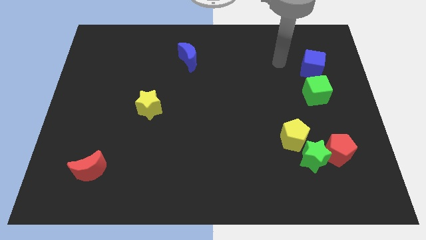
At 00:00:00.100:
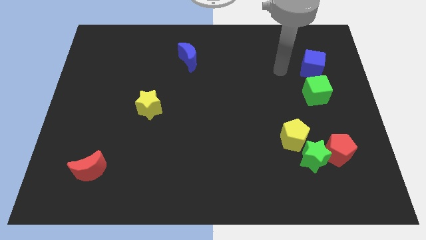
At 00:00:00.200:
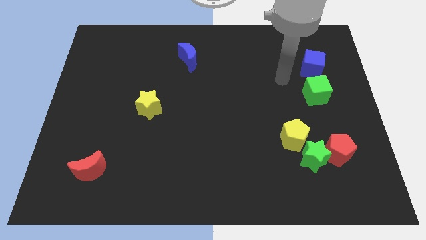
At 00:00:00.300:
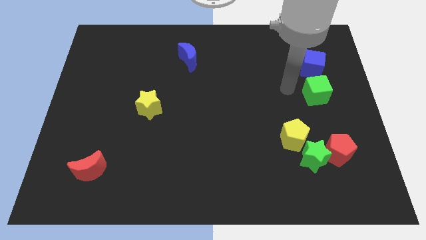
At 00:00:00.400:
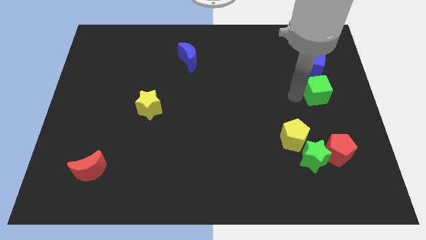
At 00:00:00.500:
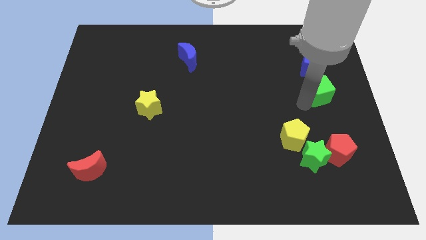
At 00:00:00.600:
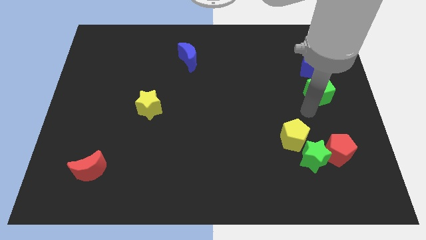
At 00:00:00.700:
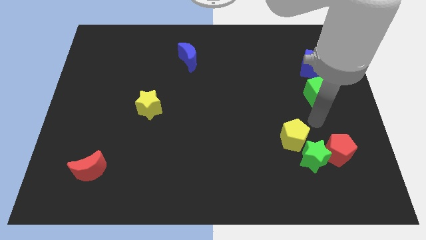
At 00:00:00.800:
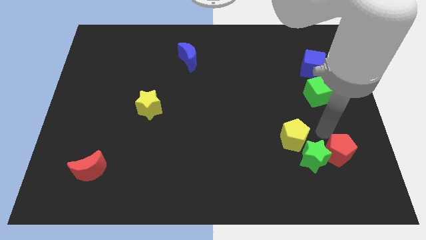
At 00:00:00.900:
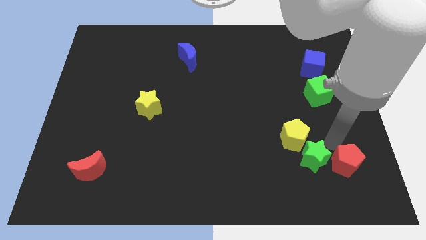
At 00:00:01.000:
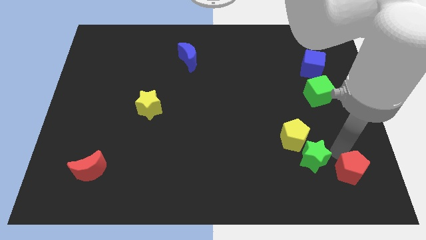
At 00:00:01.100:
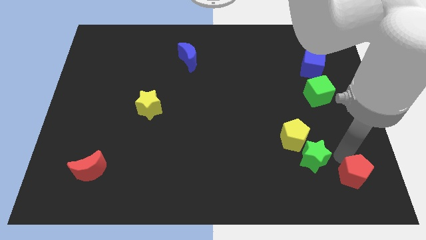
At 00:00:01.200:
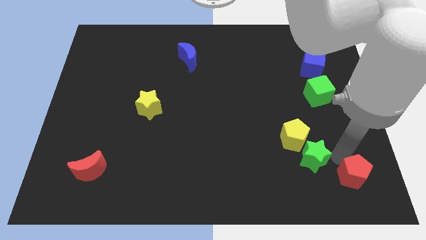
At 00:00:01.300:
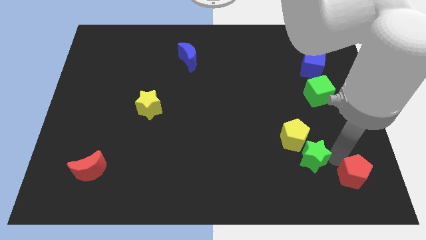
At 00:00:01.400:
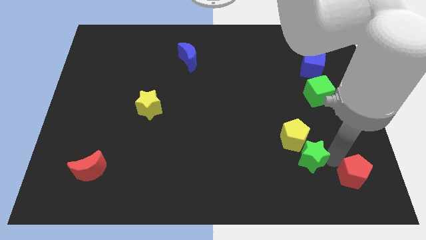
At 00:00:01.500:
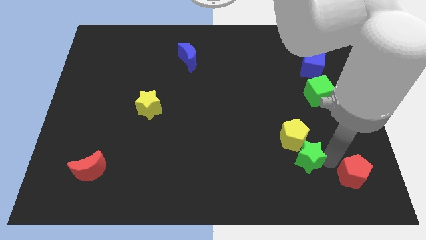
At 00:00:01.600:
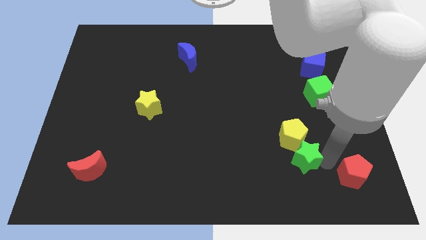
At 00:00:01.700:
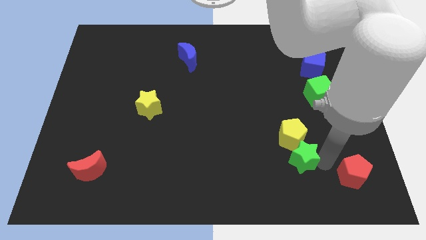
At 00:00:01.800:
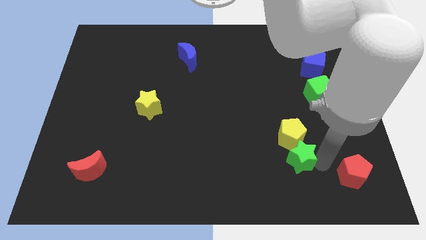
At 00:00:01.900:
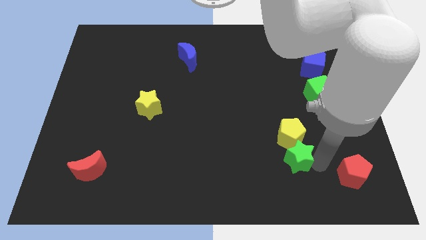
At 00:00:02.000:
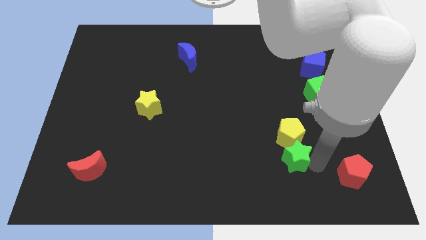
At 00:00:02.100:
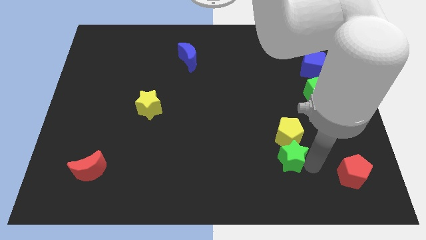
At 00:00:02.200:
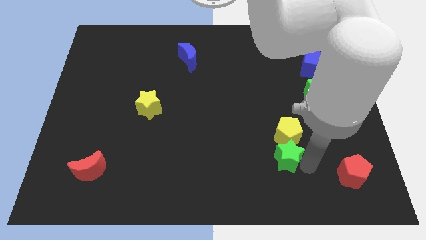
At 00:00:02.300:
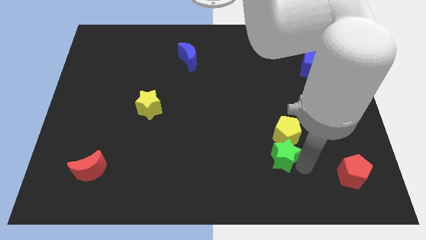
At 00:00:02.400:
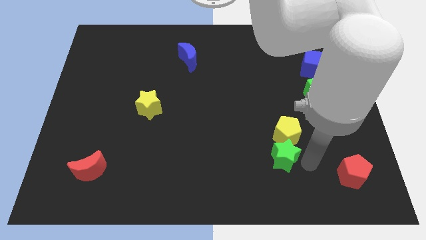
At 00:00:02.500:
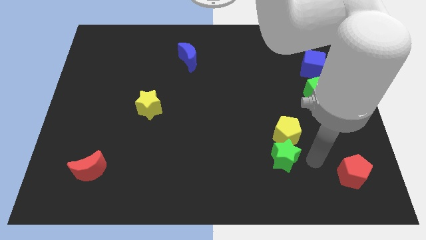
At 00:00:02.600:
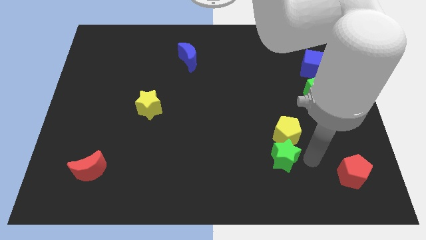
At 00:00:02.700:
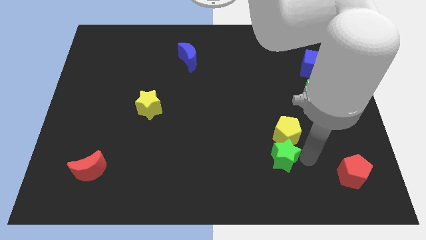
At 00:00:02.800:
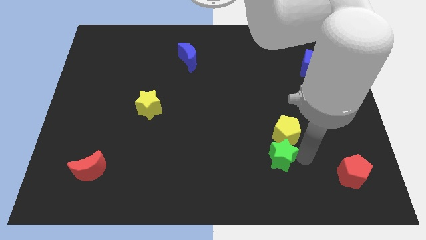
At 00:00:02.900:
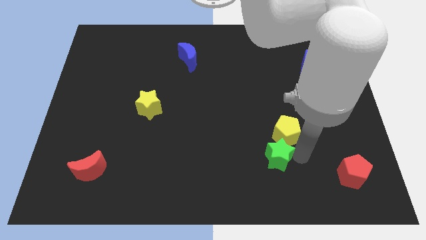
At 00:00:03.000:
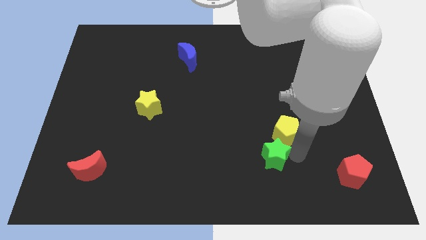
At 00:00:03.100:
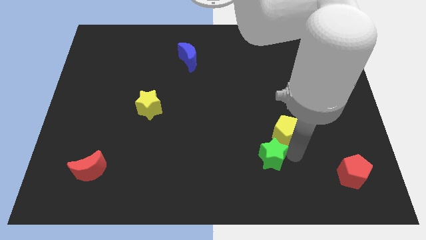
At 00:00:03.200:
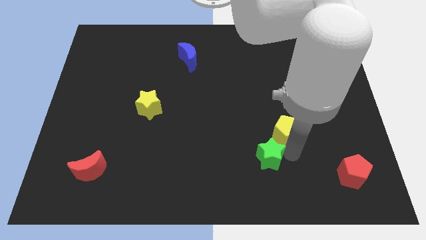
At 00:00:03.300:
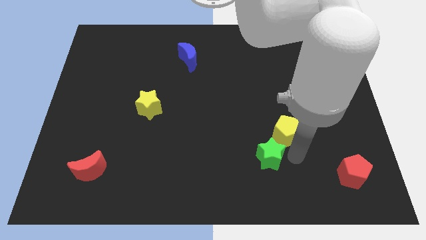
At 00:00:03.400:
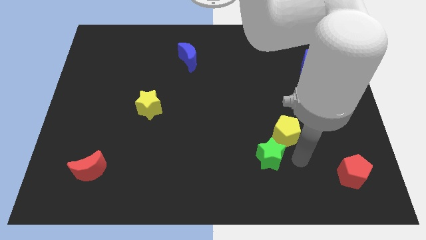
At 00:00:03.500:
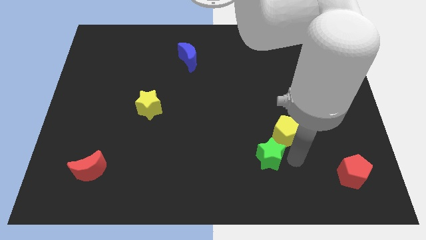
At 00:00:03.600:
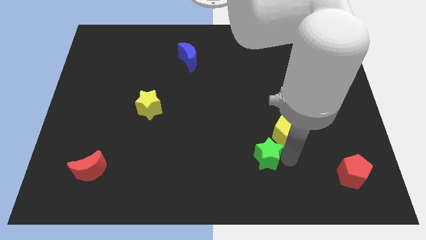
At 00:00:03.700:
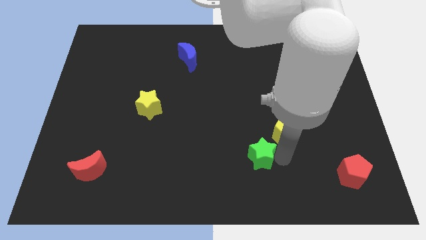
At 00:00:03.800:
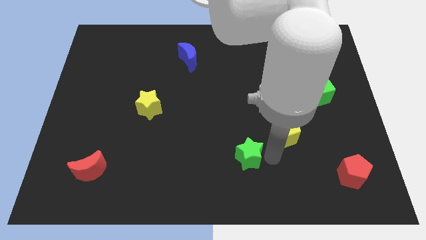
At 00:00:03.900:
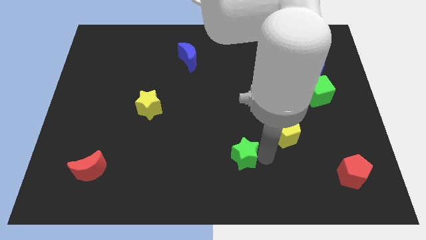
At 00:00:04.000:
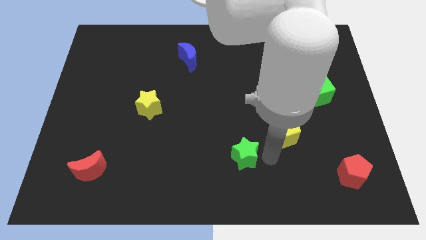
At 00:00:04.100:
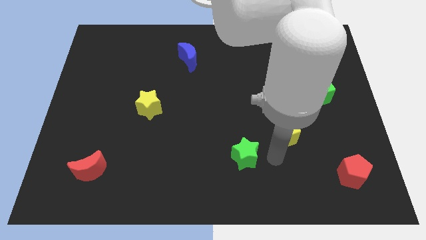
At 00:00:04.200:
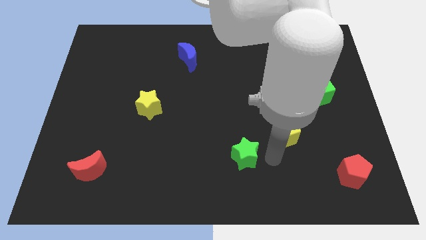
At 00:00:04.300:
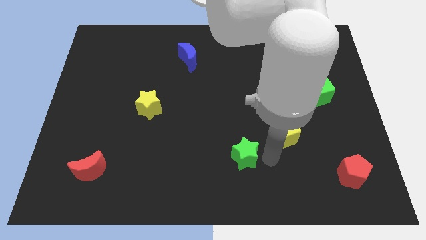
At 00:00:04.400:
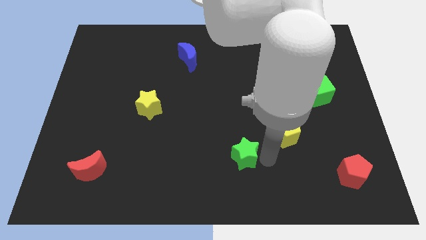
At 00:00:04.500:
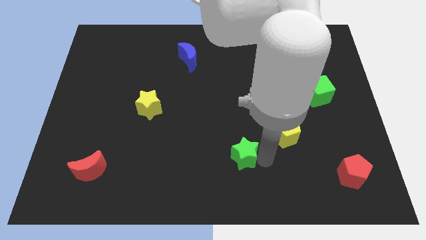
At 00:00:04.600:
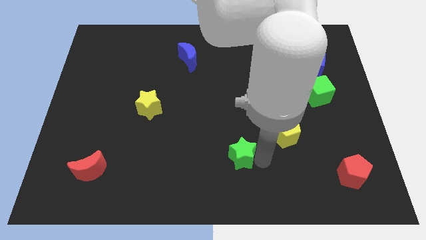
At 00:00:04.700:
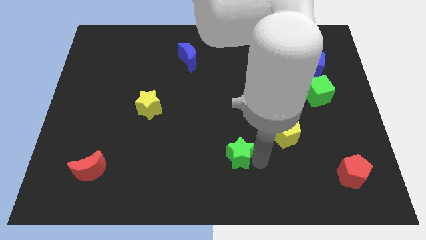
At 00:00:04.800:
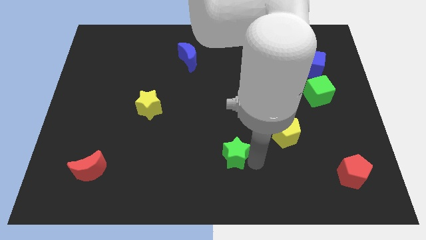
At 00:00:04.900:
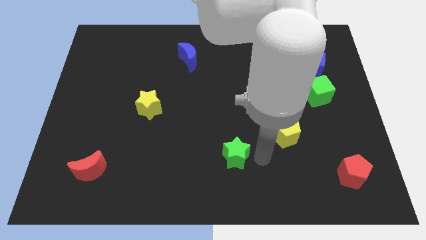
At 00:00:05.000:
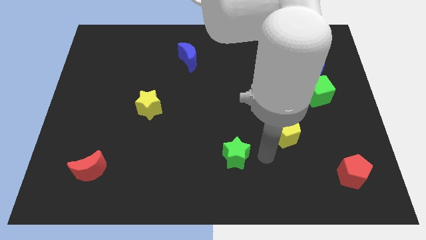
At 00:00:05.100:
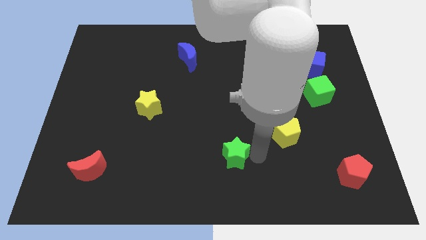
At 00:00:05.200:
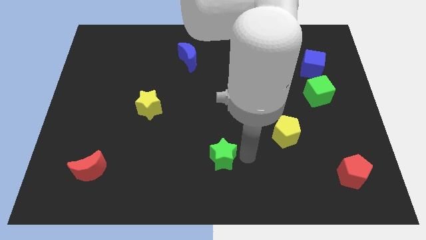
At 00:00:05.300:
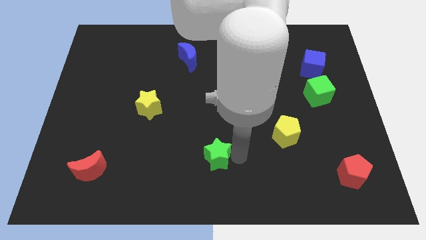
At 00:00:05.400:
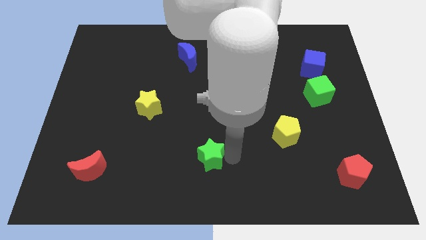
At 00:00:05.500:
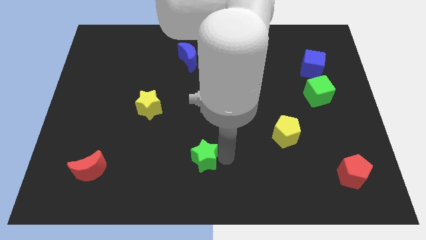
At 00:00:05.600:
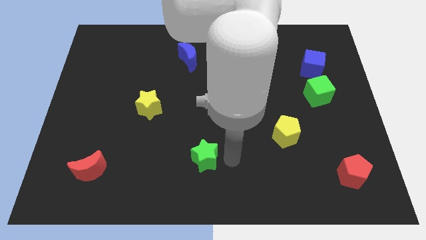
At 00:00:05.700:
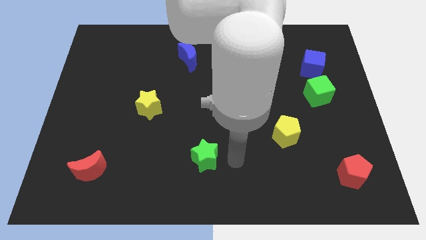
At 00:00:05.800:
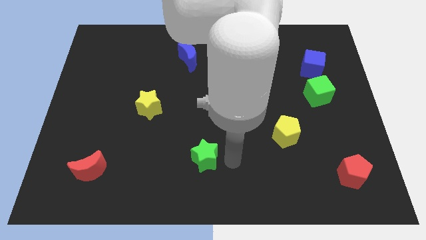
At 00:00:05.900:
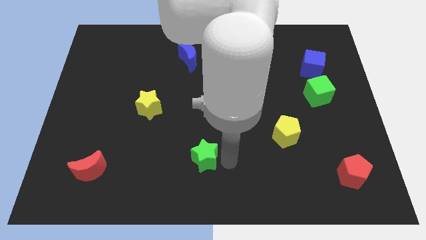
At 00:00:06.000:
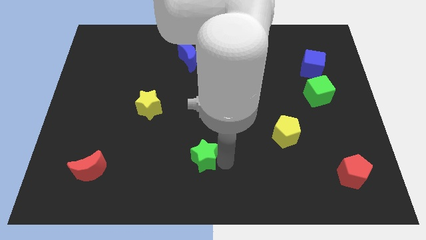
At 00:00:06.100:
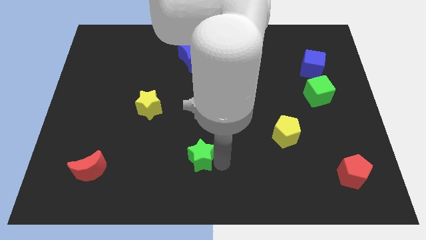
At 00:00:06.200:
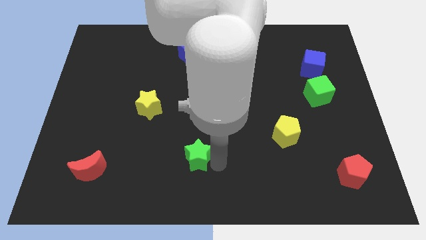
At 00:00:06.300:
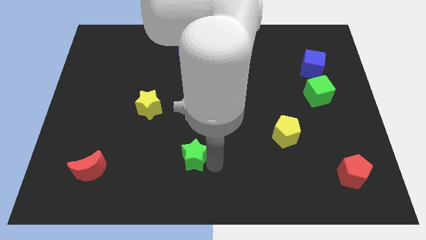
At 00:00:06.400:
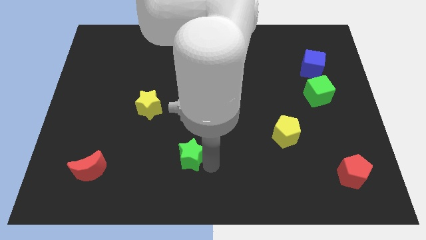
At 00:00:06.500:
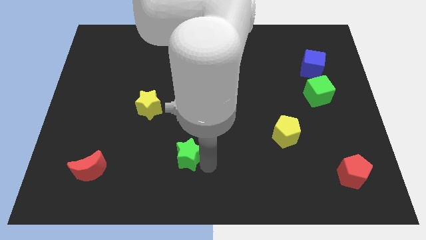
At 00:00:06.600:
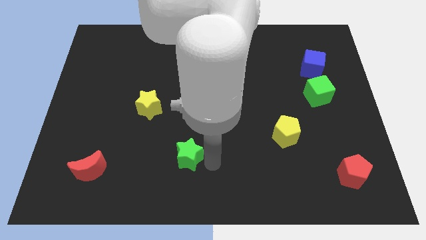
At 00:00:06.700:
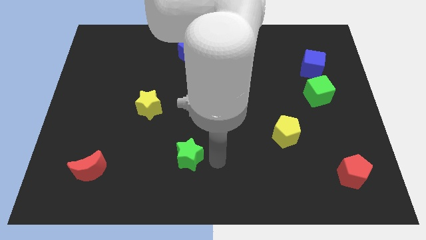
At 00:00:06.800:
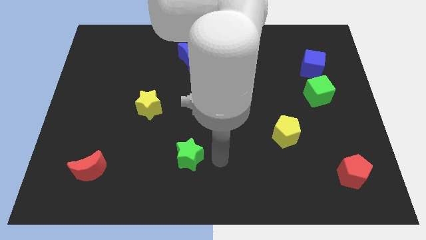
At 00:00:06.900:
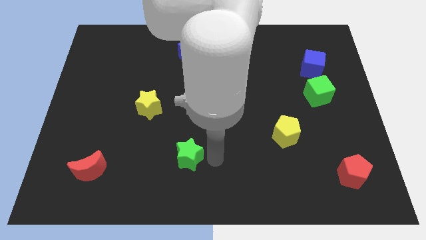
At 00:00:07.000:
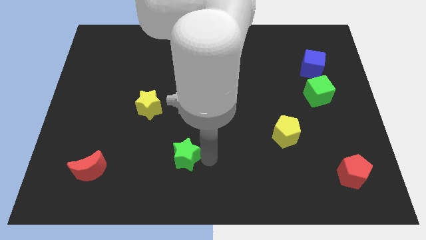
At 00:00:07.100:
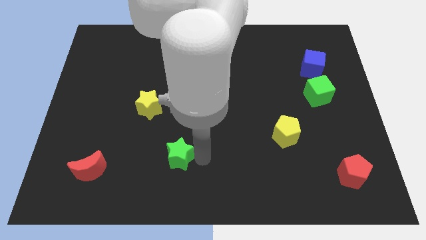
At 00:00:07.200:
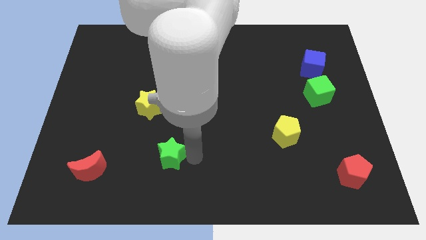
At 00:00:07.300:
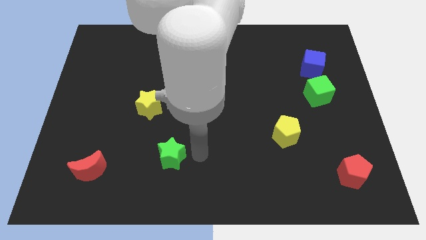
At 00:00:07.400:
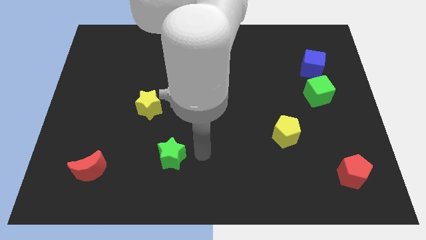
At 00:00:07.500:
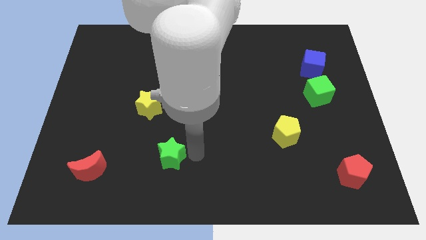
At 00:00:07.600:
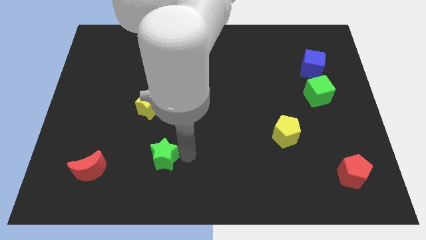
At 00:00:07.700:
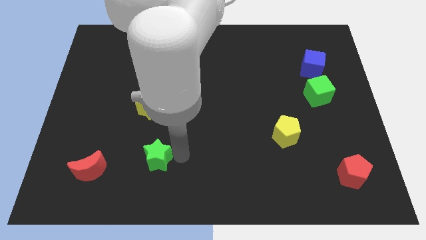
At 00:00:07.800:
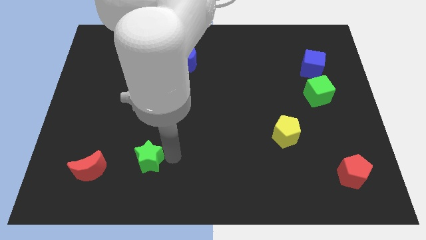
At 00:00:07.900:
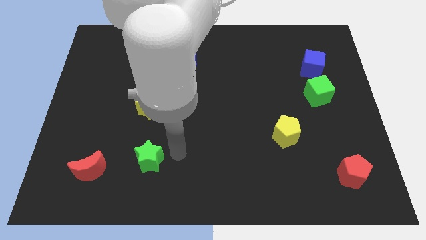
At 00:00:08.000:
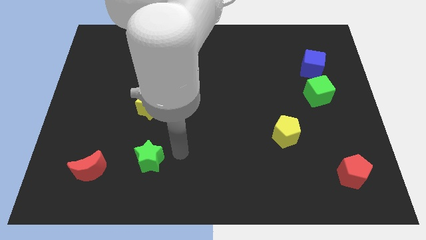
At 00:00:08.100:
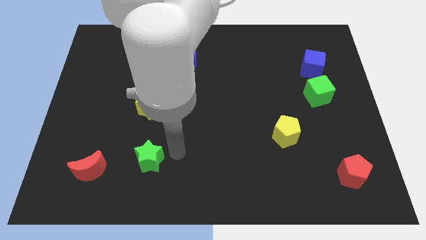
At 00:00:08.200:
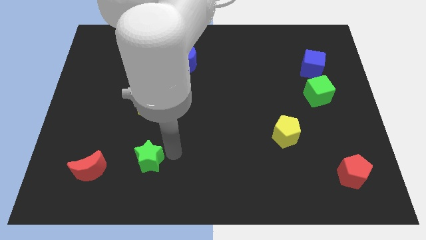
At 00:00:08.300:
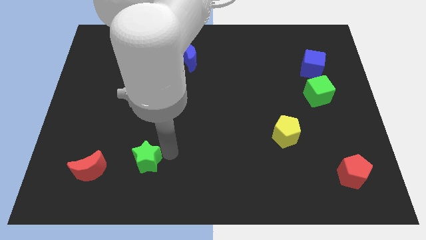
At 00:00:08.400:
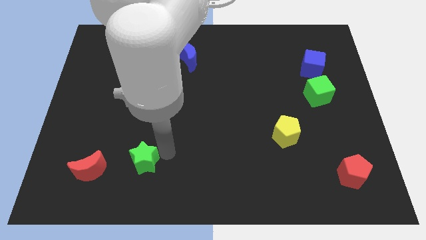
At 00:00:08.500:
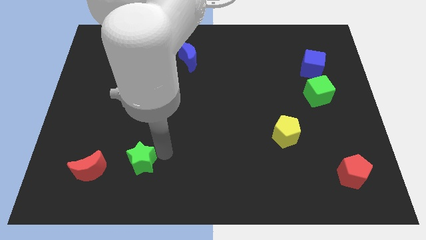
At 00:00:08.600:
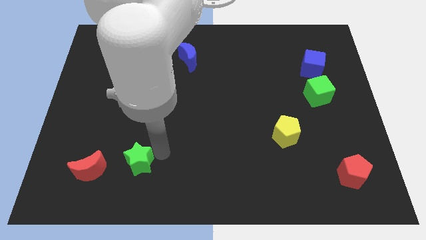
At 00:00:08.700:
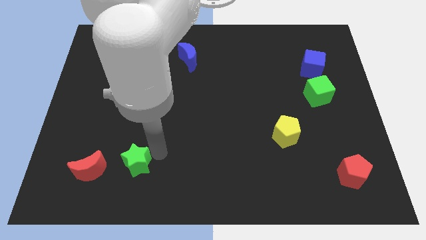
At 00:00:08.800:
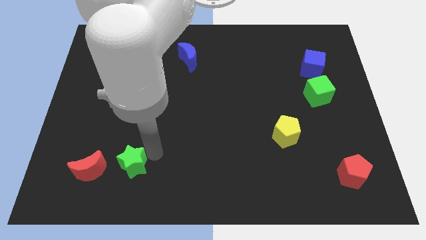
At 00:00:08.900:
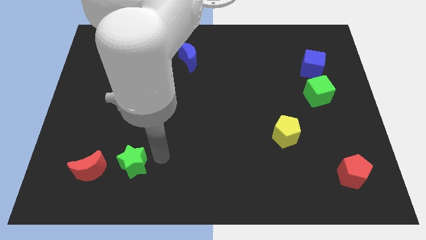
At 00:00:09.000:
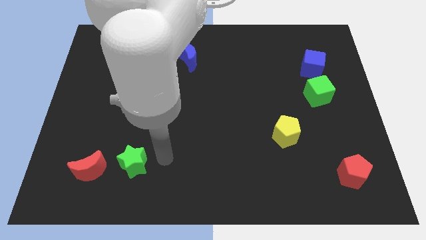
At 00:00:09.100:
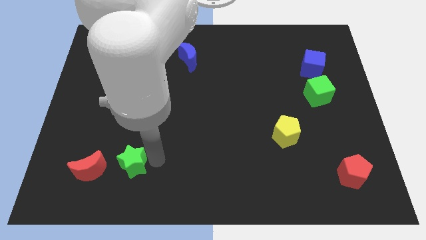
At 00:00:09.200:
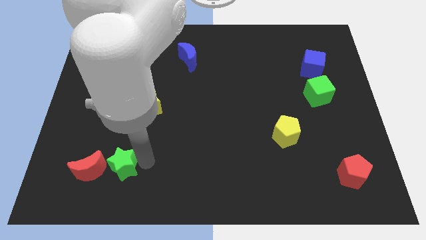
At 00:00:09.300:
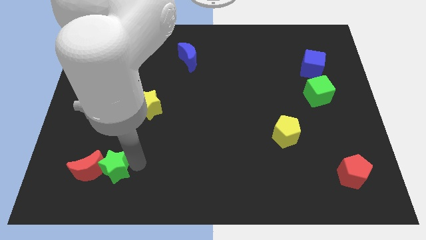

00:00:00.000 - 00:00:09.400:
slide the green star close to the red moon
